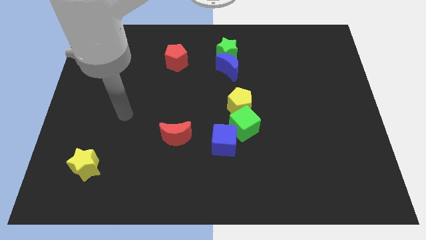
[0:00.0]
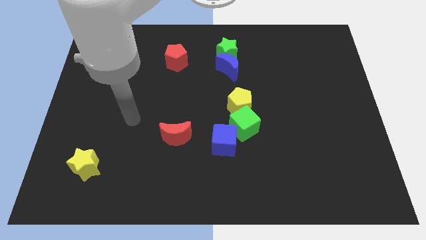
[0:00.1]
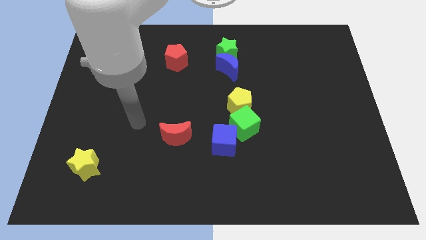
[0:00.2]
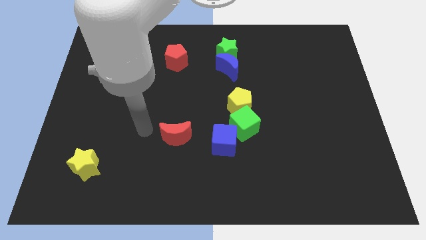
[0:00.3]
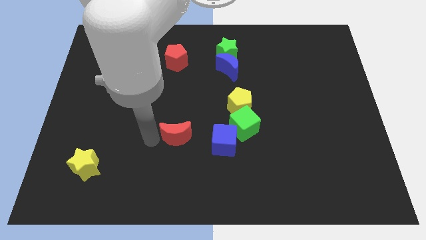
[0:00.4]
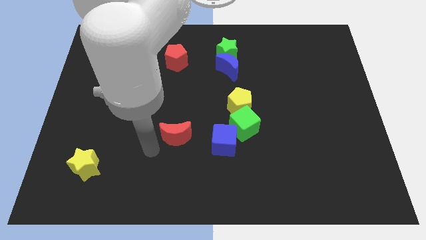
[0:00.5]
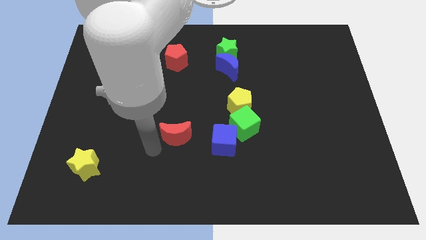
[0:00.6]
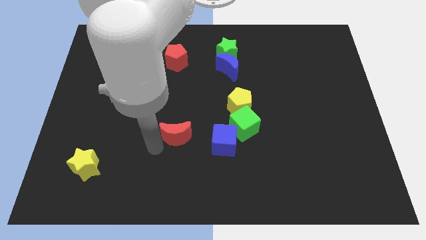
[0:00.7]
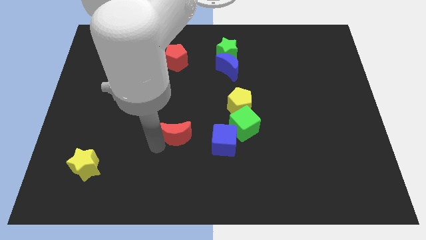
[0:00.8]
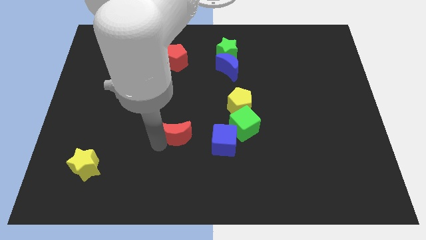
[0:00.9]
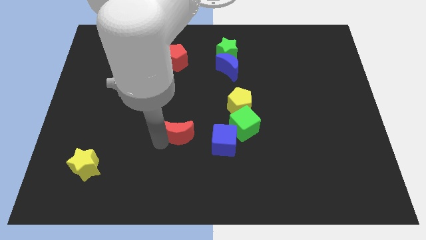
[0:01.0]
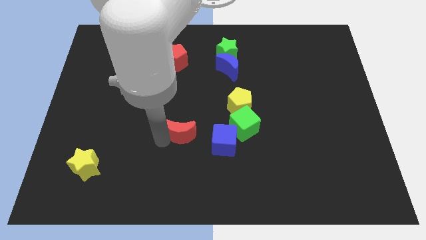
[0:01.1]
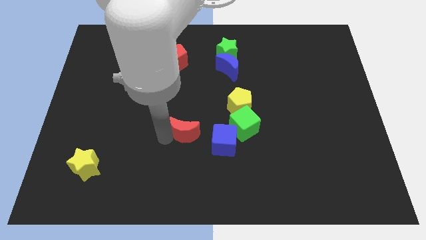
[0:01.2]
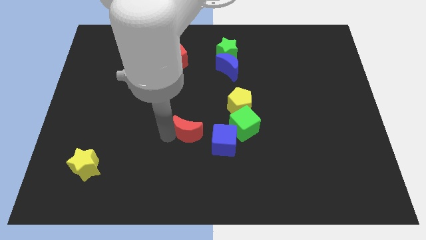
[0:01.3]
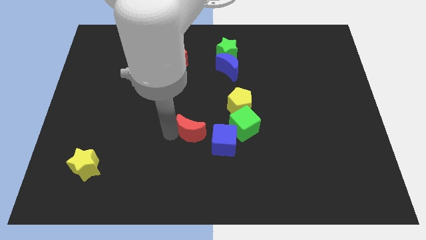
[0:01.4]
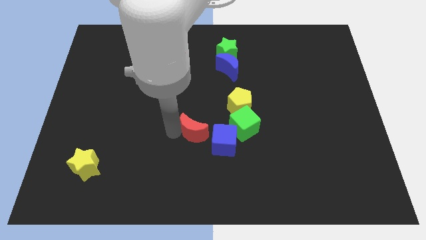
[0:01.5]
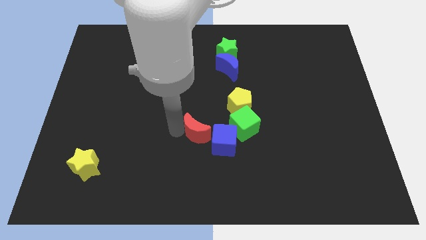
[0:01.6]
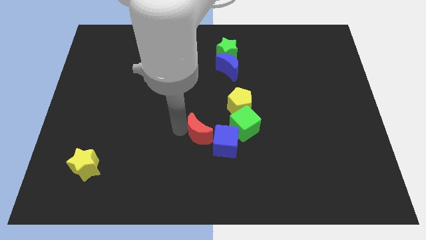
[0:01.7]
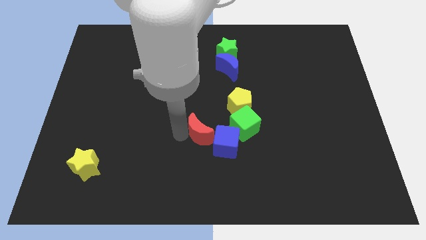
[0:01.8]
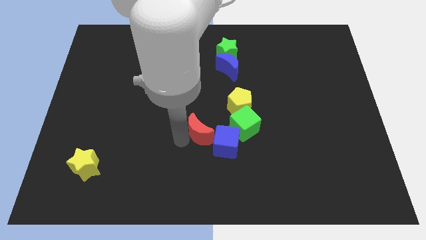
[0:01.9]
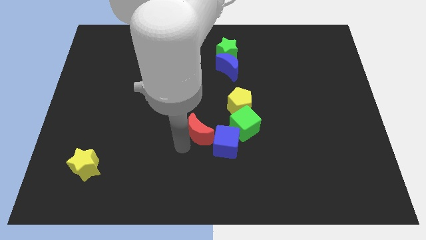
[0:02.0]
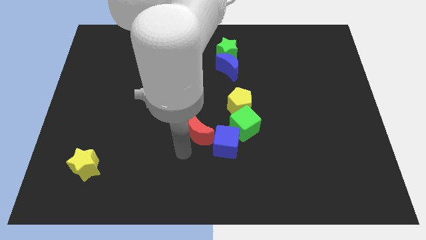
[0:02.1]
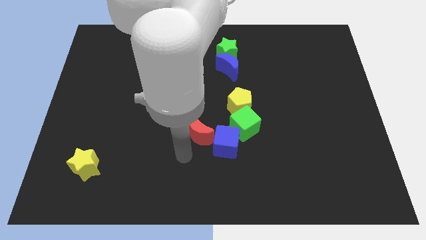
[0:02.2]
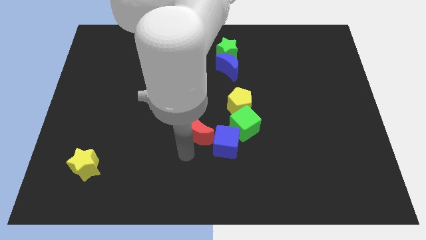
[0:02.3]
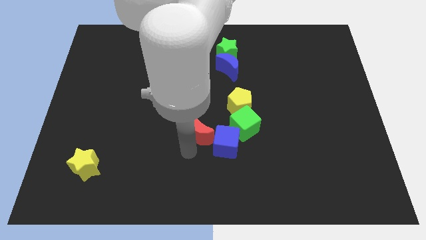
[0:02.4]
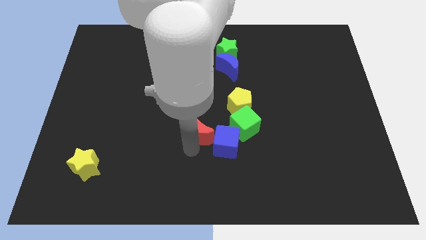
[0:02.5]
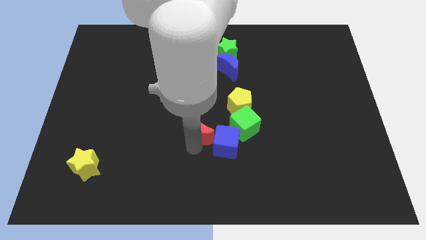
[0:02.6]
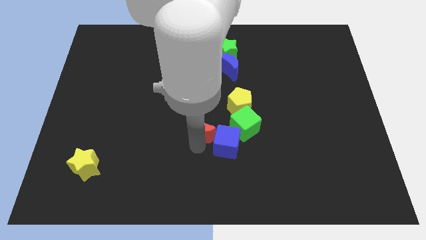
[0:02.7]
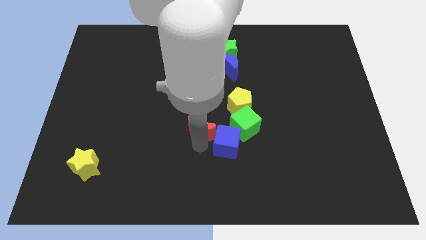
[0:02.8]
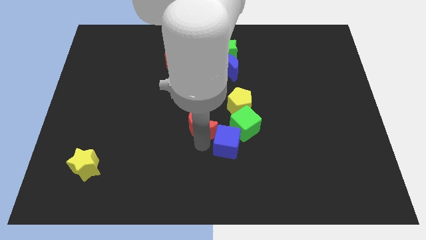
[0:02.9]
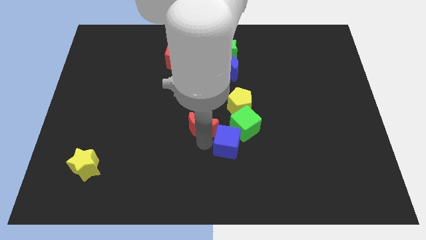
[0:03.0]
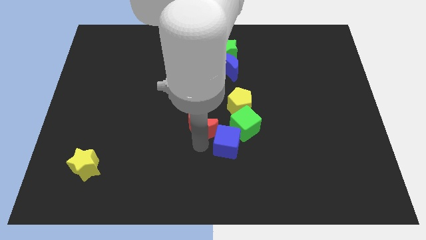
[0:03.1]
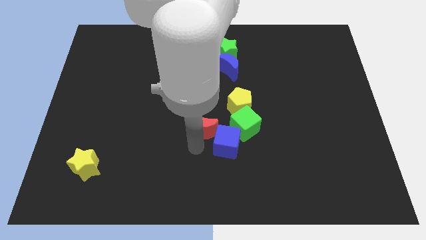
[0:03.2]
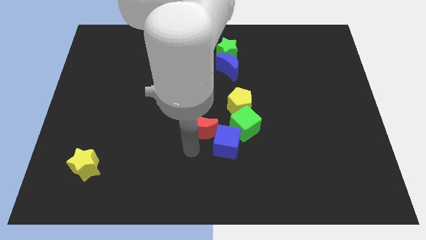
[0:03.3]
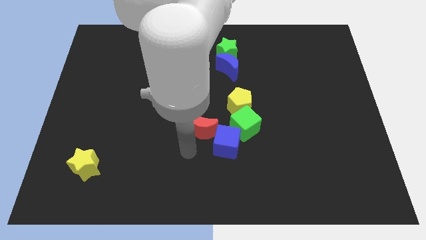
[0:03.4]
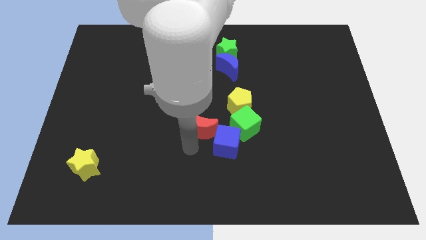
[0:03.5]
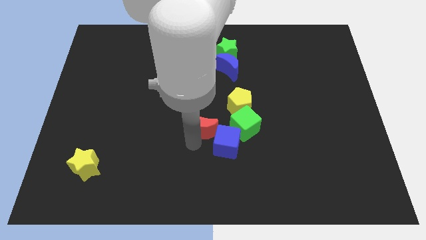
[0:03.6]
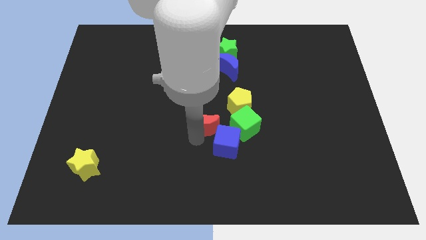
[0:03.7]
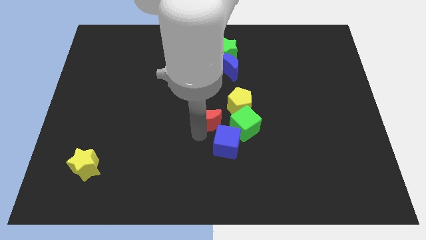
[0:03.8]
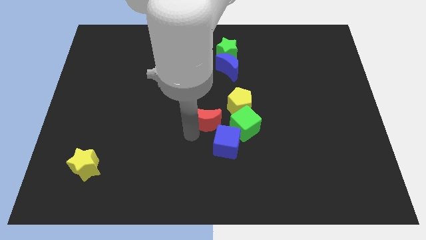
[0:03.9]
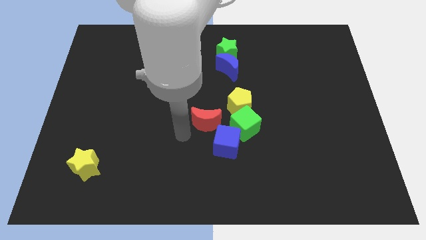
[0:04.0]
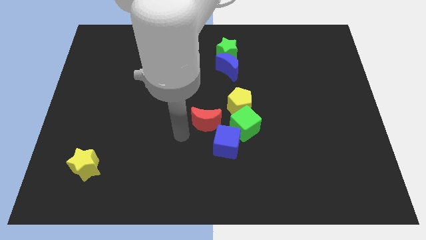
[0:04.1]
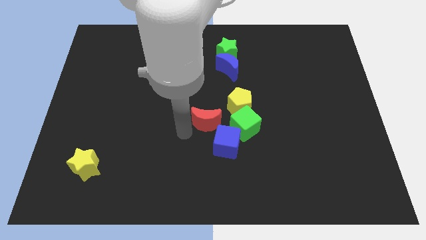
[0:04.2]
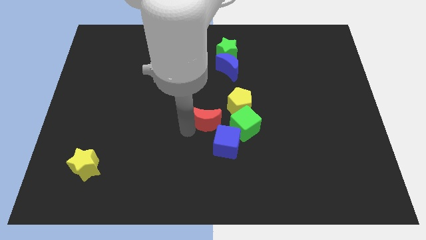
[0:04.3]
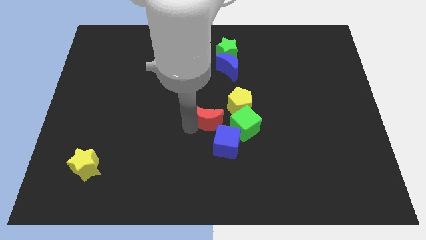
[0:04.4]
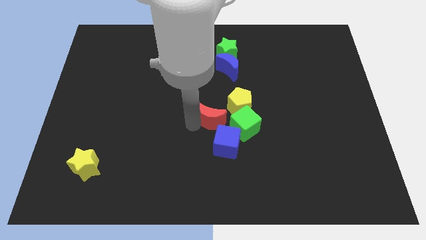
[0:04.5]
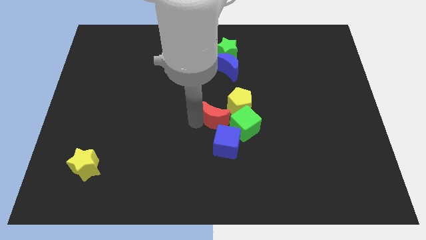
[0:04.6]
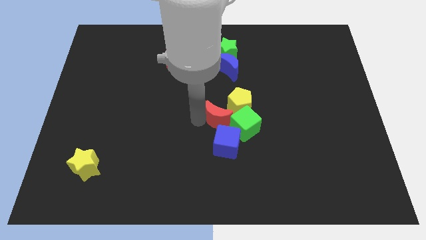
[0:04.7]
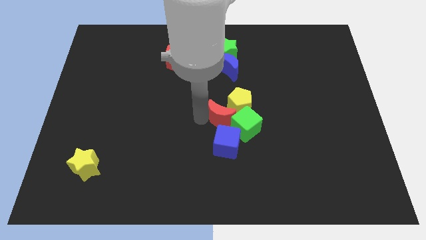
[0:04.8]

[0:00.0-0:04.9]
push the red moon to the yellow pentagon

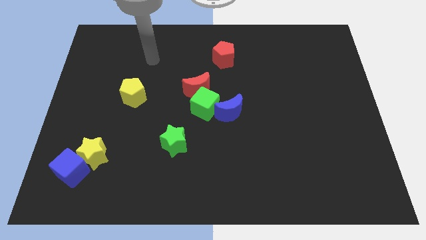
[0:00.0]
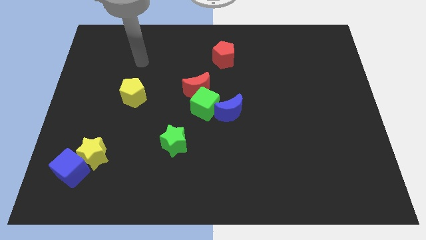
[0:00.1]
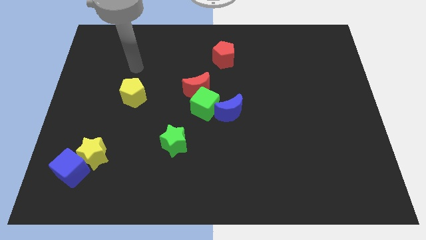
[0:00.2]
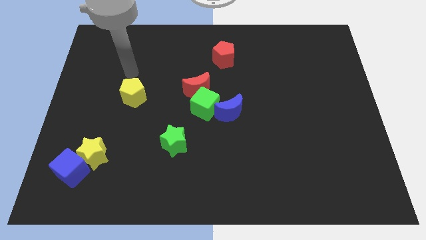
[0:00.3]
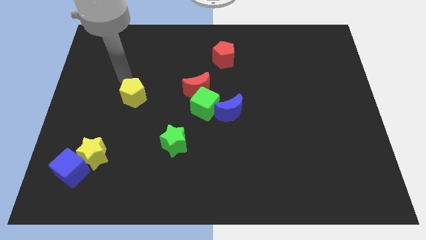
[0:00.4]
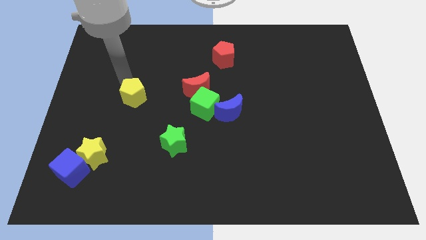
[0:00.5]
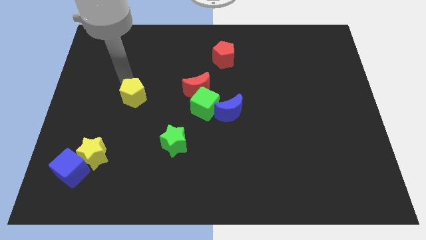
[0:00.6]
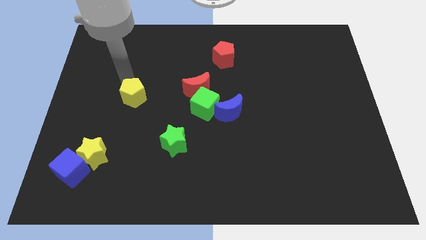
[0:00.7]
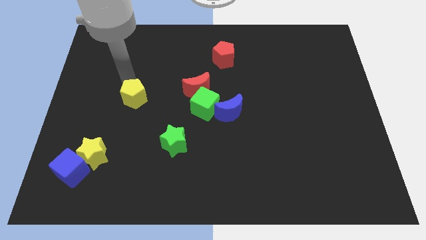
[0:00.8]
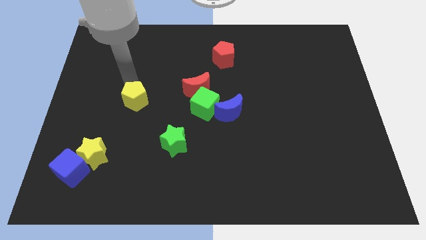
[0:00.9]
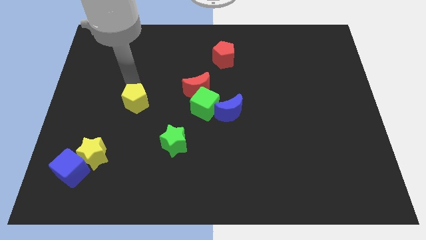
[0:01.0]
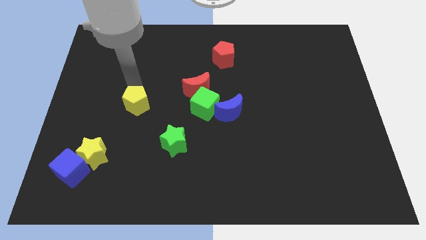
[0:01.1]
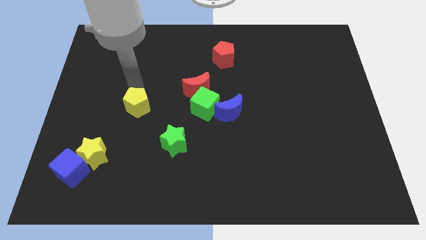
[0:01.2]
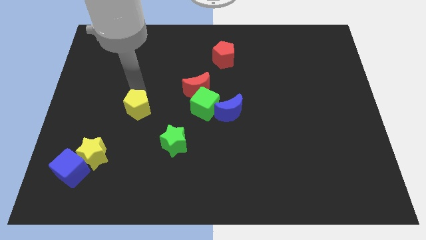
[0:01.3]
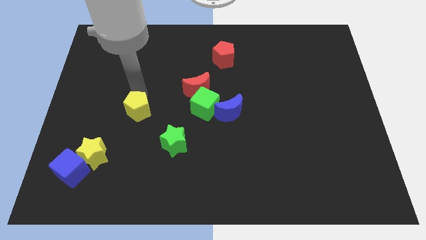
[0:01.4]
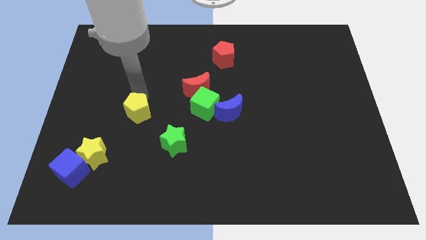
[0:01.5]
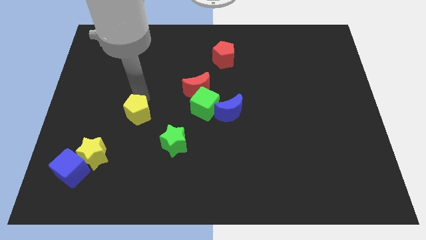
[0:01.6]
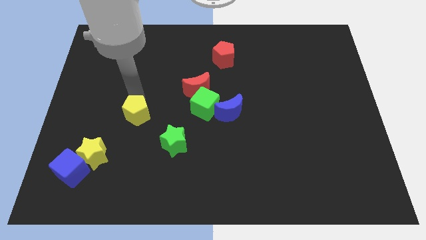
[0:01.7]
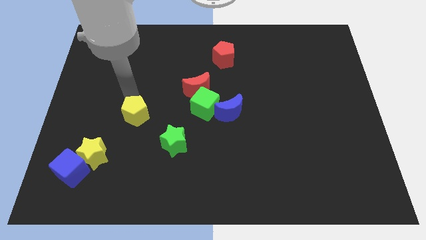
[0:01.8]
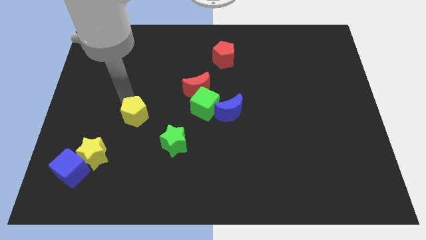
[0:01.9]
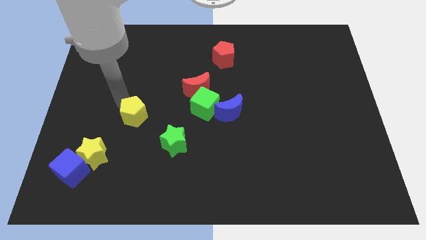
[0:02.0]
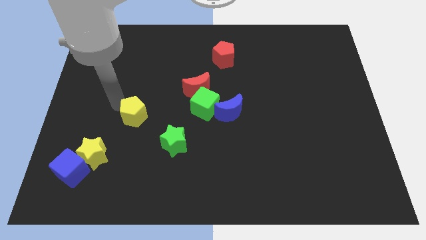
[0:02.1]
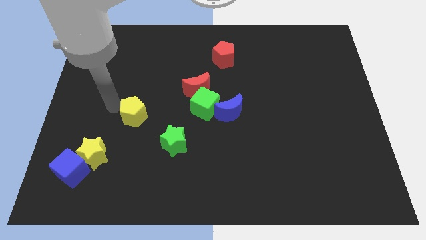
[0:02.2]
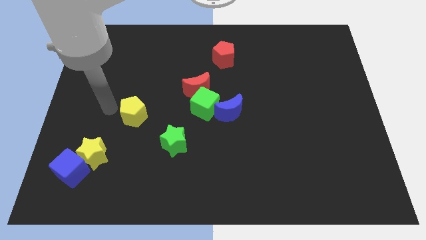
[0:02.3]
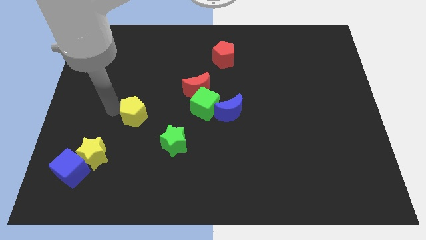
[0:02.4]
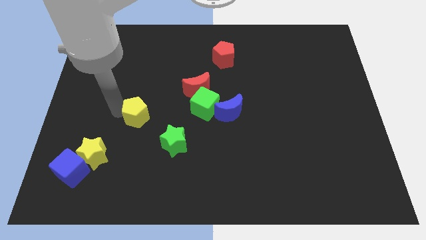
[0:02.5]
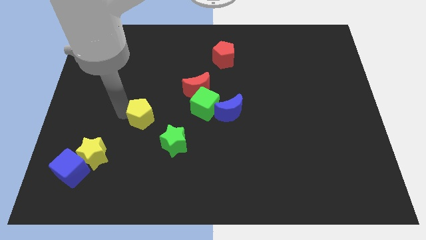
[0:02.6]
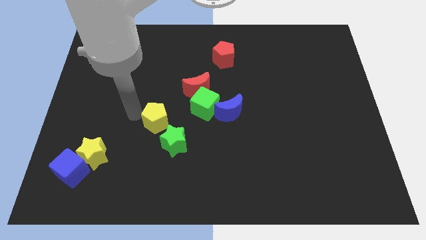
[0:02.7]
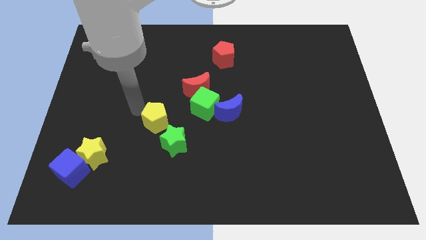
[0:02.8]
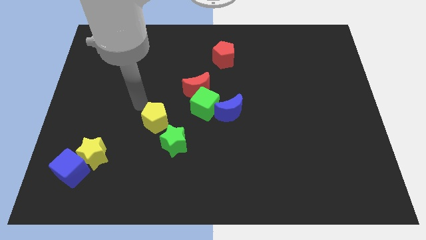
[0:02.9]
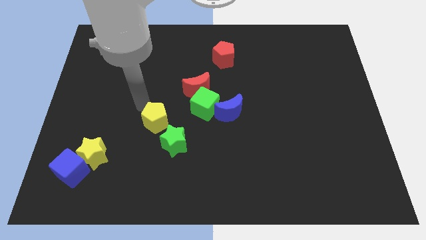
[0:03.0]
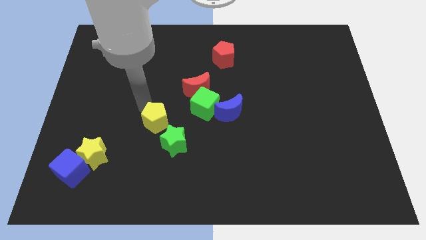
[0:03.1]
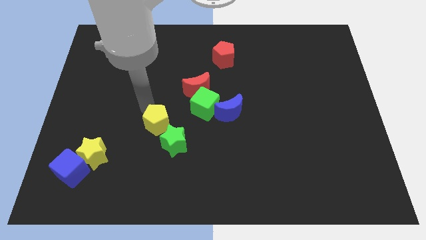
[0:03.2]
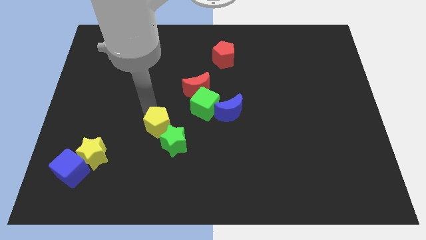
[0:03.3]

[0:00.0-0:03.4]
push the yellow pentagon next to the green star
